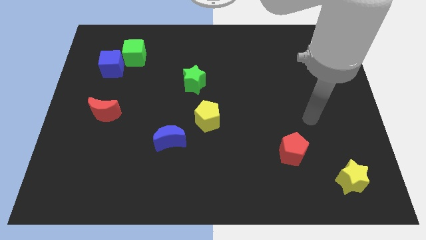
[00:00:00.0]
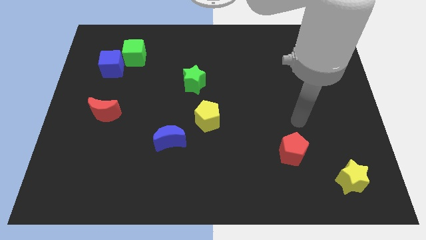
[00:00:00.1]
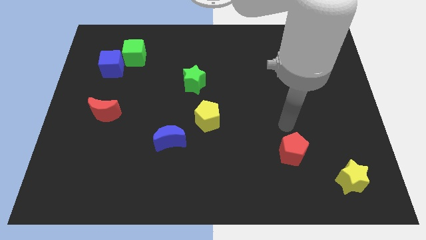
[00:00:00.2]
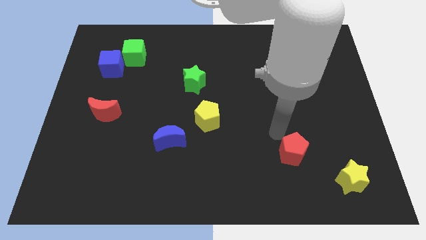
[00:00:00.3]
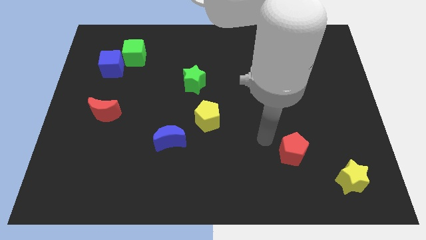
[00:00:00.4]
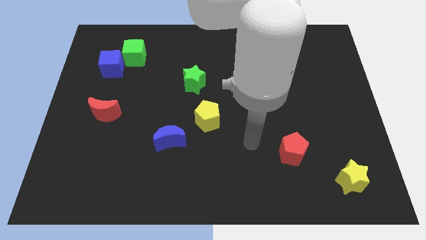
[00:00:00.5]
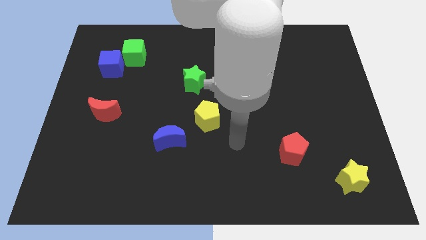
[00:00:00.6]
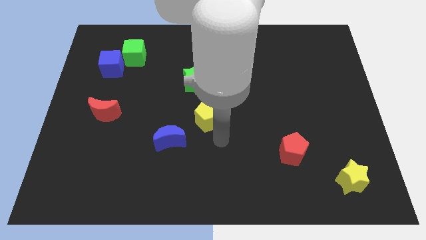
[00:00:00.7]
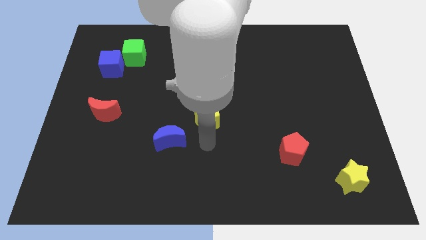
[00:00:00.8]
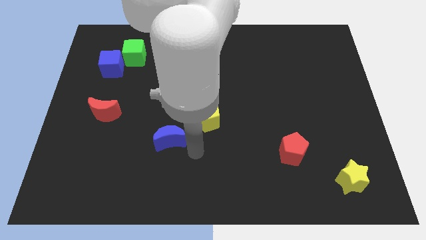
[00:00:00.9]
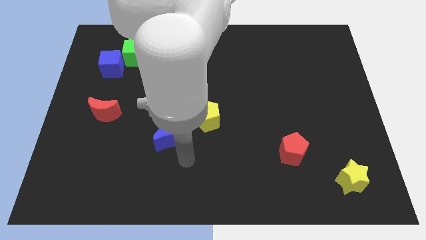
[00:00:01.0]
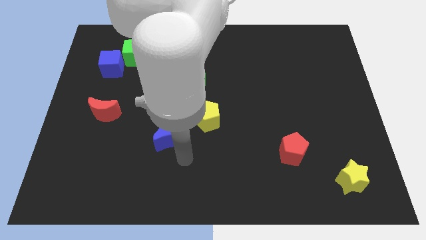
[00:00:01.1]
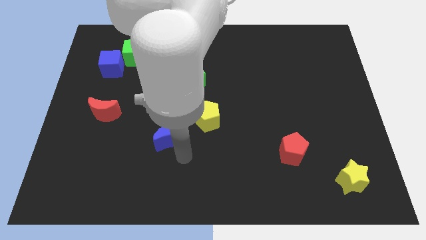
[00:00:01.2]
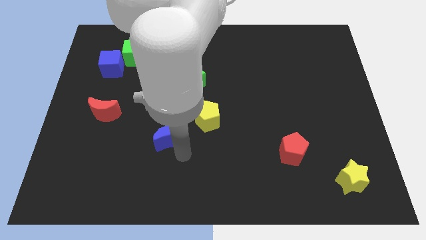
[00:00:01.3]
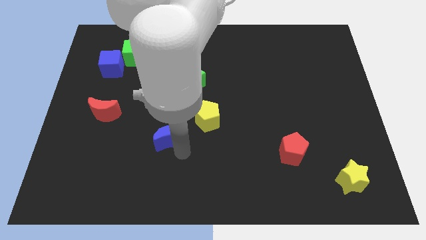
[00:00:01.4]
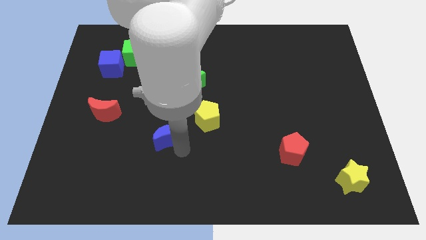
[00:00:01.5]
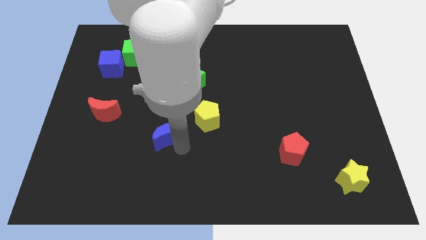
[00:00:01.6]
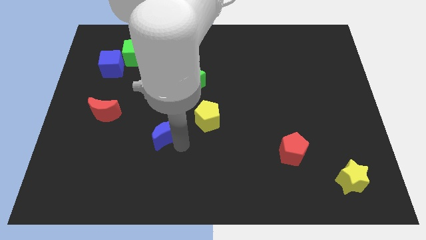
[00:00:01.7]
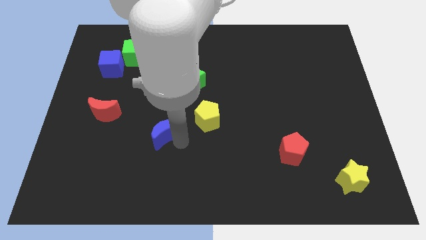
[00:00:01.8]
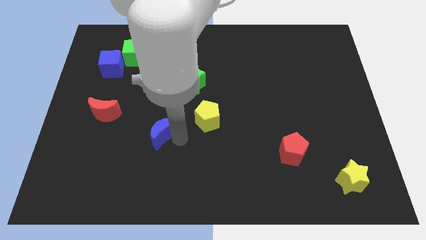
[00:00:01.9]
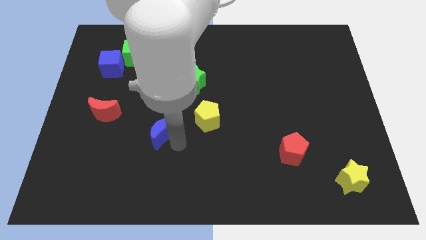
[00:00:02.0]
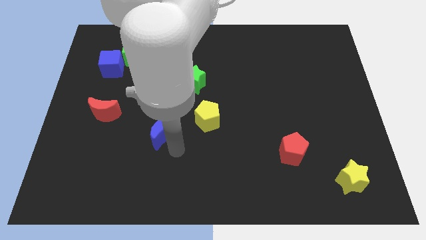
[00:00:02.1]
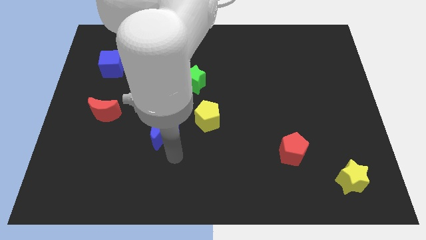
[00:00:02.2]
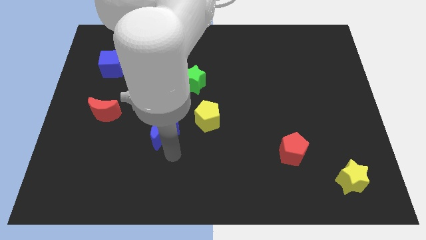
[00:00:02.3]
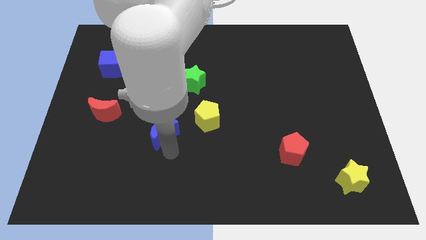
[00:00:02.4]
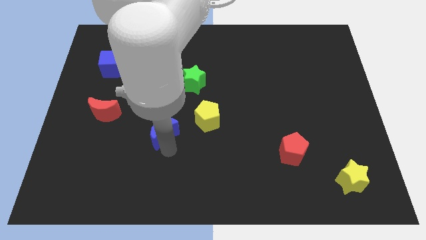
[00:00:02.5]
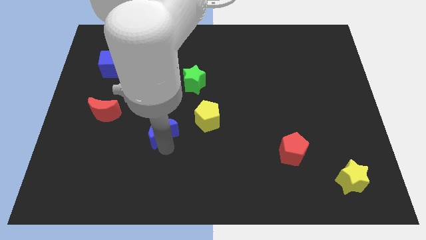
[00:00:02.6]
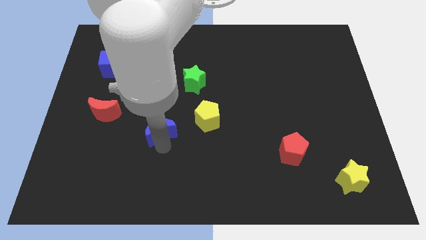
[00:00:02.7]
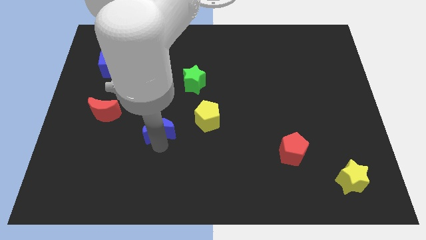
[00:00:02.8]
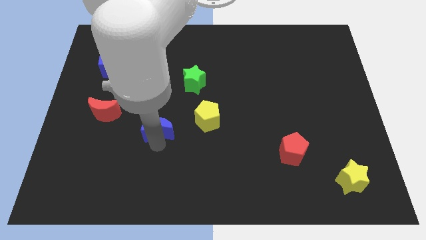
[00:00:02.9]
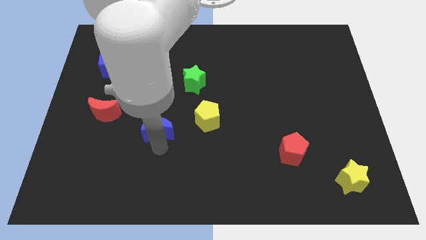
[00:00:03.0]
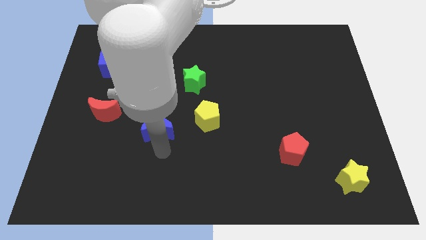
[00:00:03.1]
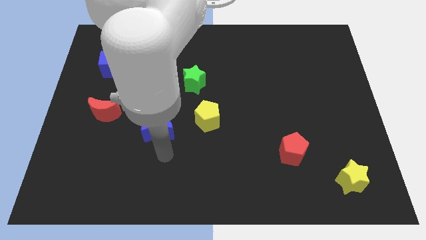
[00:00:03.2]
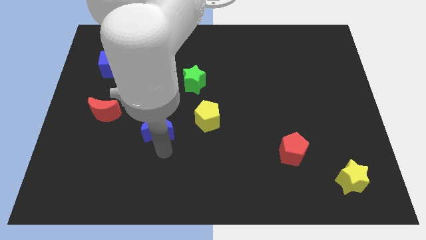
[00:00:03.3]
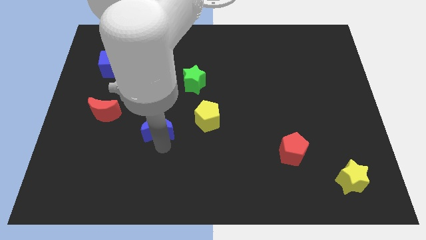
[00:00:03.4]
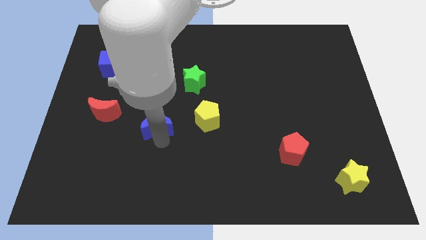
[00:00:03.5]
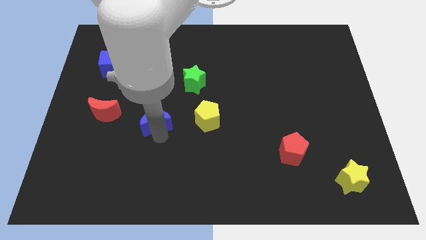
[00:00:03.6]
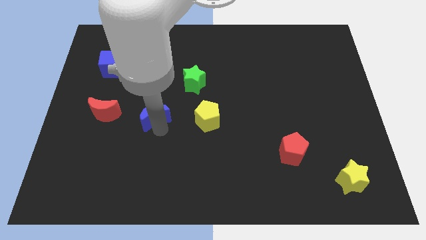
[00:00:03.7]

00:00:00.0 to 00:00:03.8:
push the blue moon upwards and left diagonally slightly

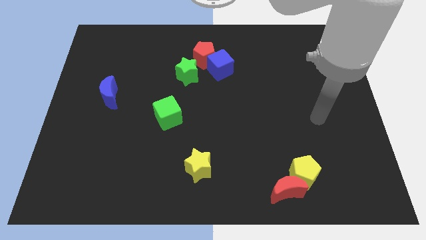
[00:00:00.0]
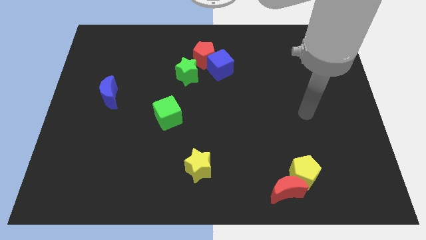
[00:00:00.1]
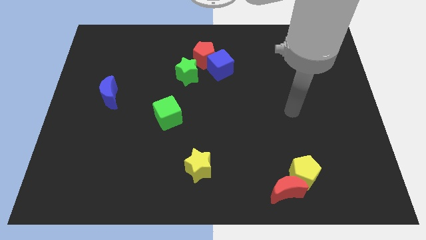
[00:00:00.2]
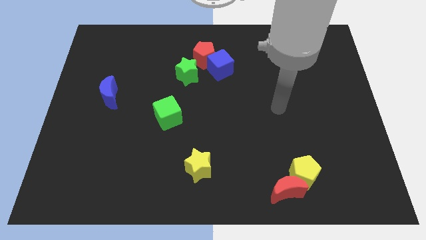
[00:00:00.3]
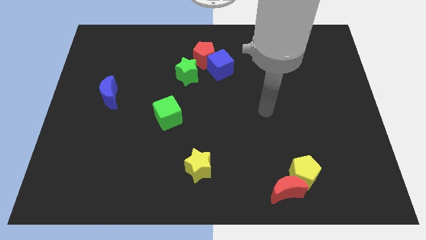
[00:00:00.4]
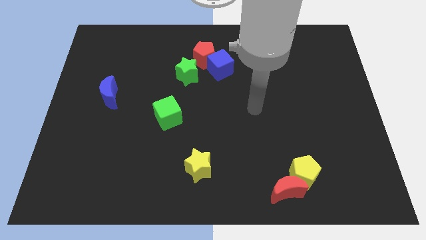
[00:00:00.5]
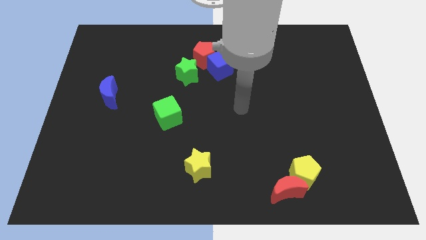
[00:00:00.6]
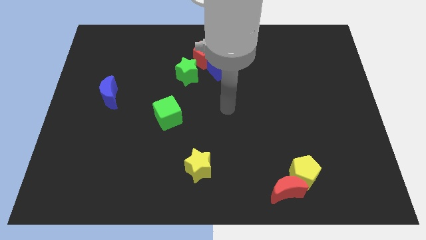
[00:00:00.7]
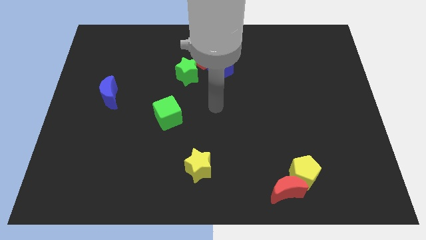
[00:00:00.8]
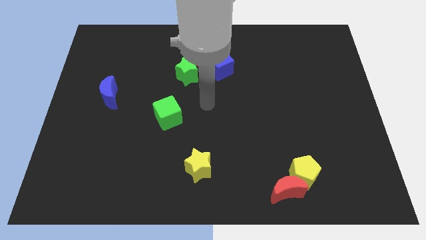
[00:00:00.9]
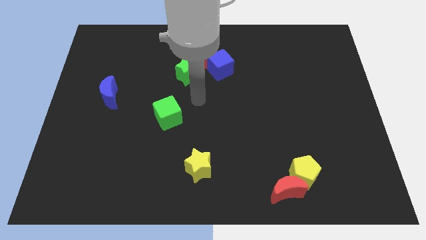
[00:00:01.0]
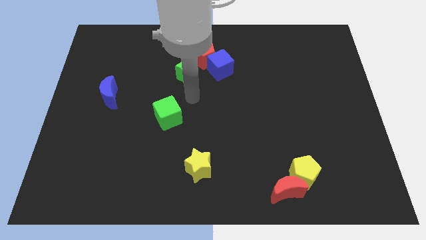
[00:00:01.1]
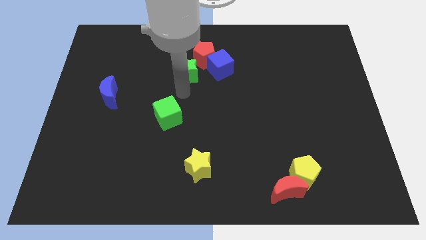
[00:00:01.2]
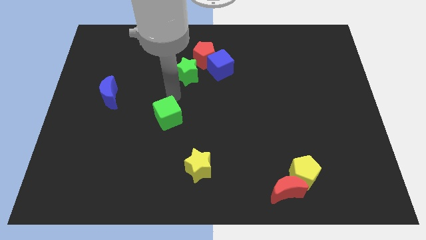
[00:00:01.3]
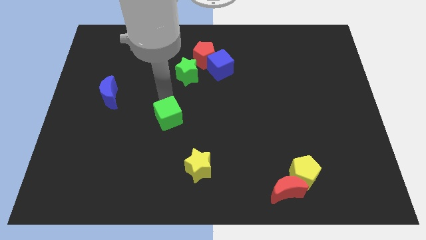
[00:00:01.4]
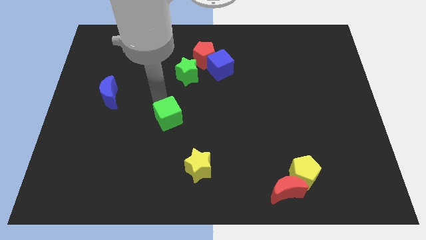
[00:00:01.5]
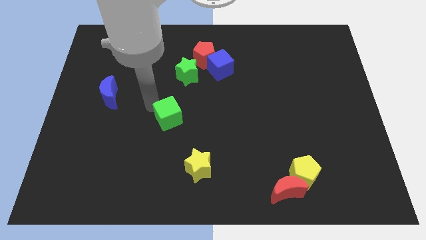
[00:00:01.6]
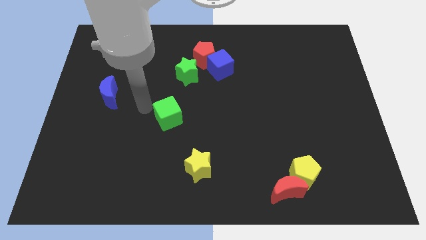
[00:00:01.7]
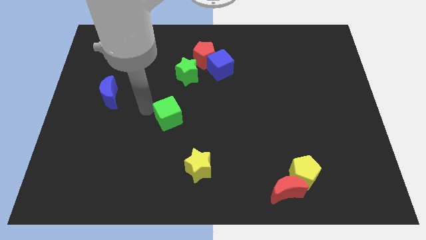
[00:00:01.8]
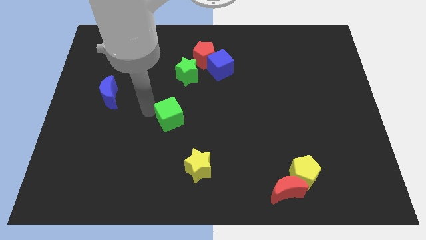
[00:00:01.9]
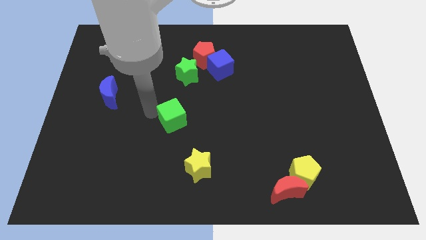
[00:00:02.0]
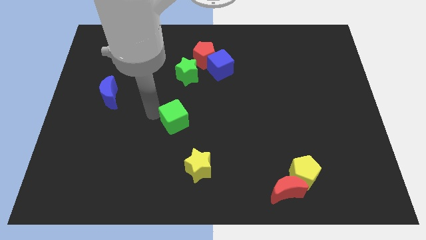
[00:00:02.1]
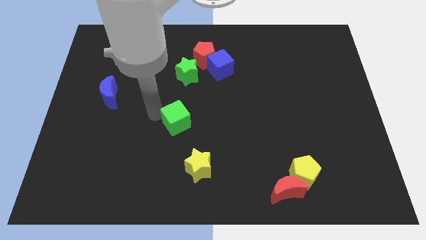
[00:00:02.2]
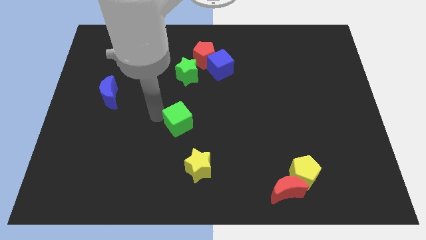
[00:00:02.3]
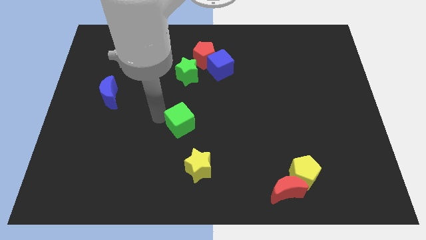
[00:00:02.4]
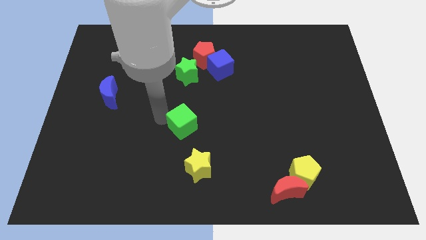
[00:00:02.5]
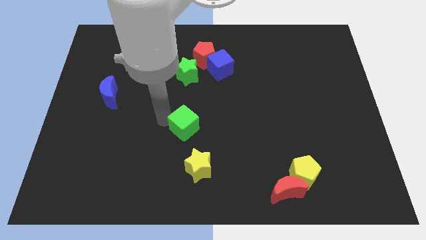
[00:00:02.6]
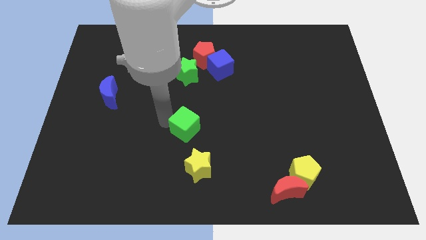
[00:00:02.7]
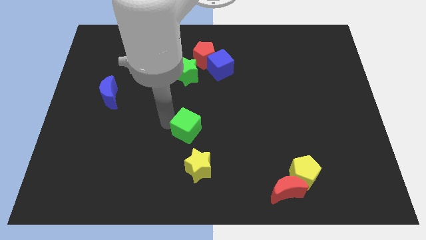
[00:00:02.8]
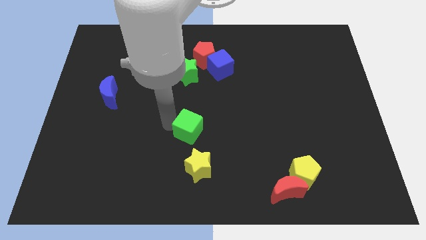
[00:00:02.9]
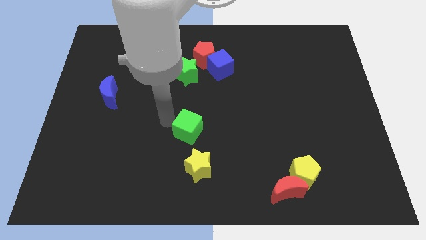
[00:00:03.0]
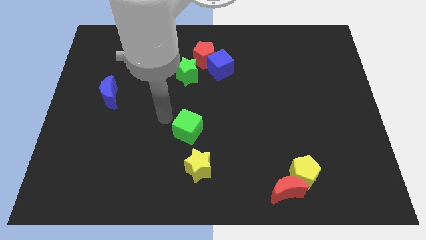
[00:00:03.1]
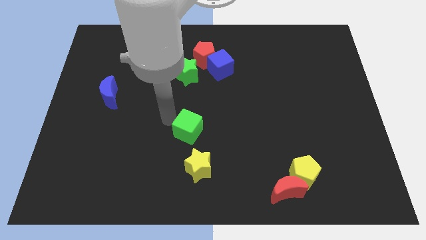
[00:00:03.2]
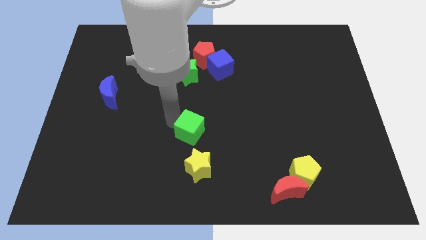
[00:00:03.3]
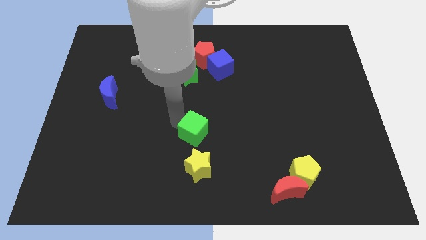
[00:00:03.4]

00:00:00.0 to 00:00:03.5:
push the green cube a little bit diagonally down and right
